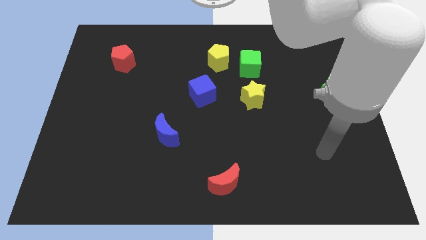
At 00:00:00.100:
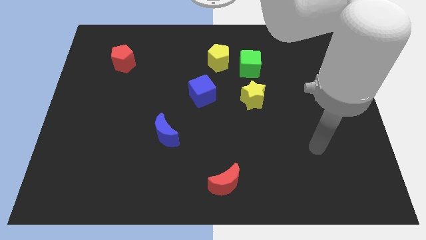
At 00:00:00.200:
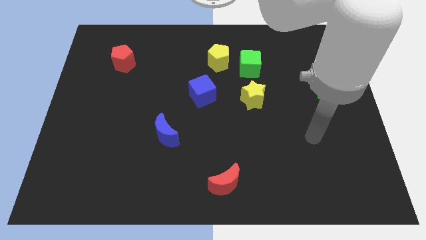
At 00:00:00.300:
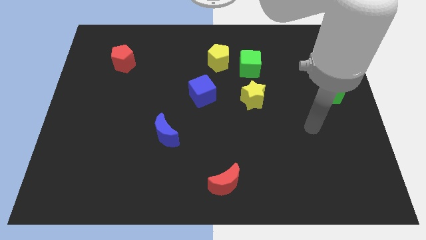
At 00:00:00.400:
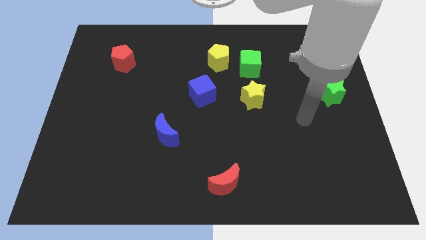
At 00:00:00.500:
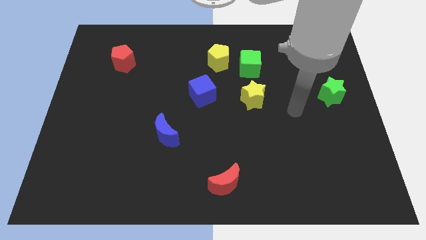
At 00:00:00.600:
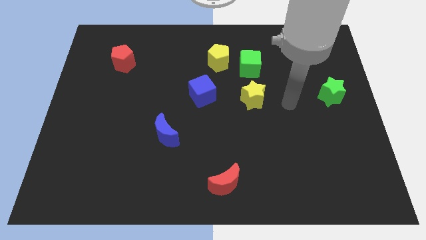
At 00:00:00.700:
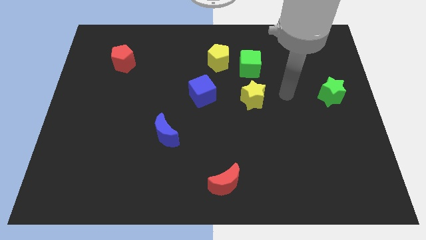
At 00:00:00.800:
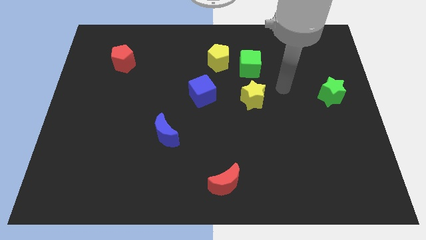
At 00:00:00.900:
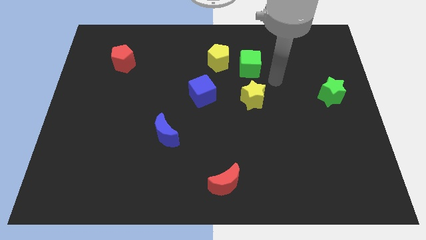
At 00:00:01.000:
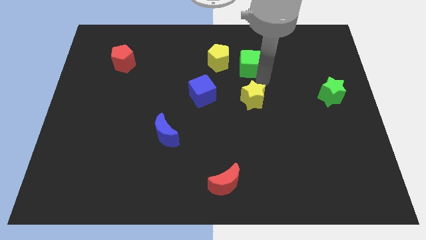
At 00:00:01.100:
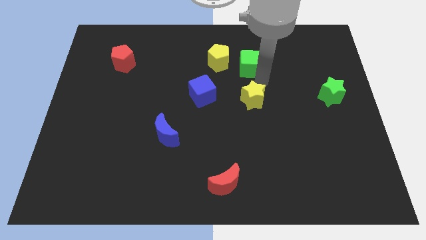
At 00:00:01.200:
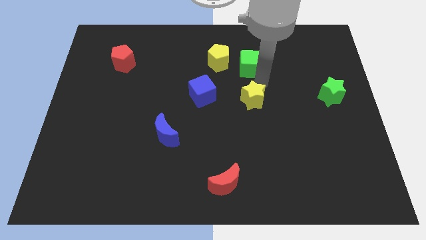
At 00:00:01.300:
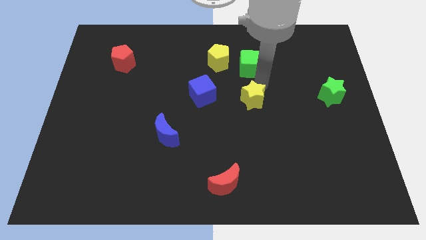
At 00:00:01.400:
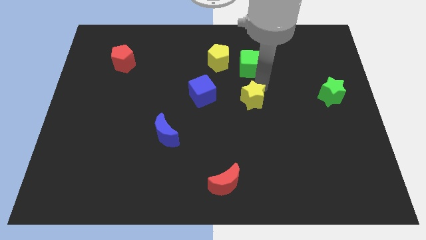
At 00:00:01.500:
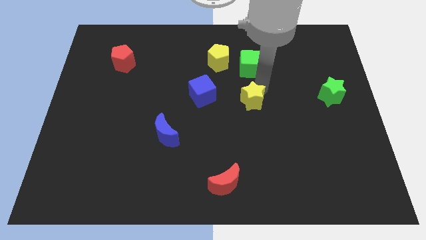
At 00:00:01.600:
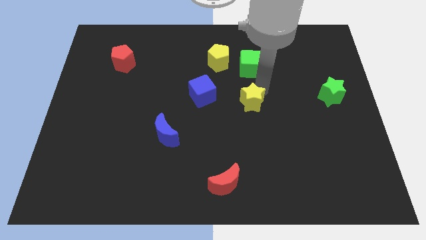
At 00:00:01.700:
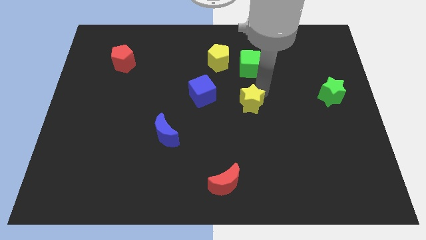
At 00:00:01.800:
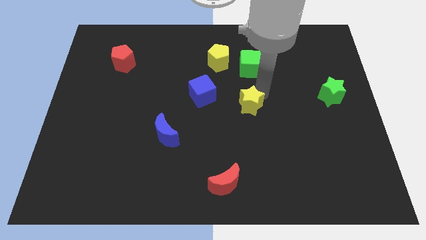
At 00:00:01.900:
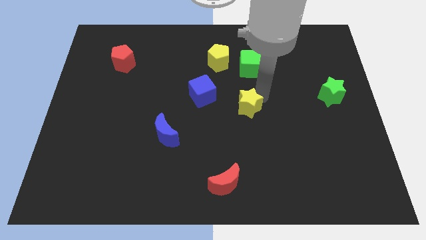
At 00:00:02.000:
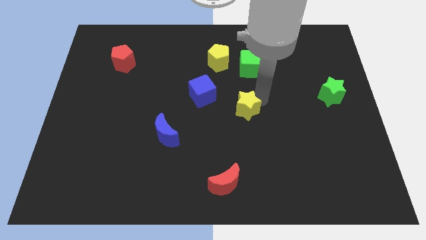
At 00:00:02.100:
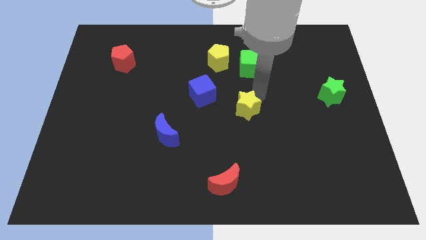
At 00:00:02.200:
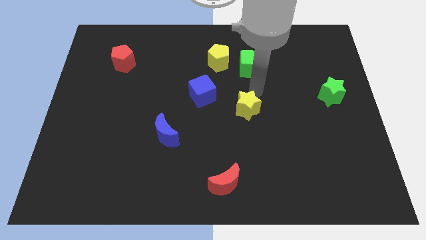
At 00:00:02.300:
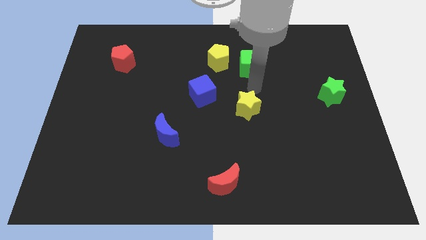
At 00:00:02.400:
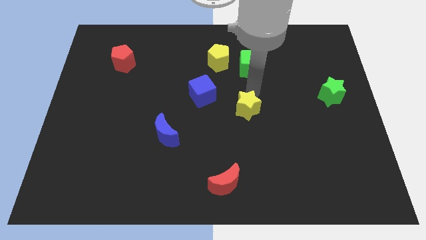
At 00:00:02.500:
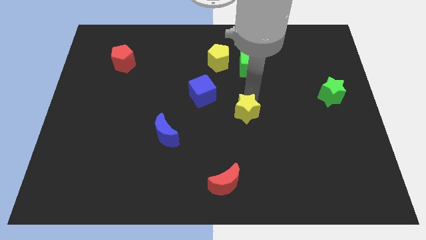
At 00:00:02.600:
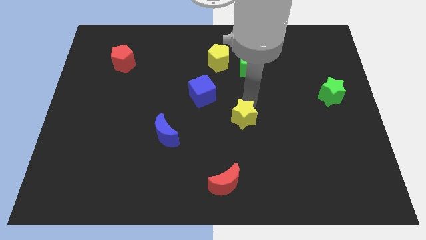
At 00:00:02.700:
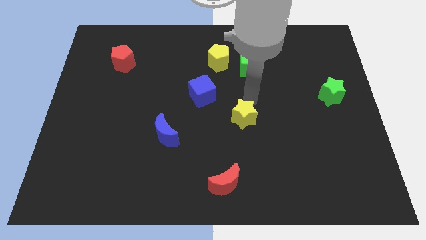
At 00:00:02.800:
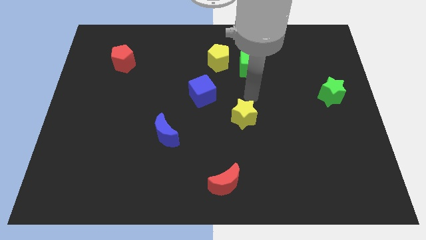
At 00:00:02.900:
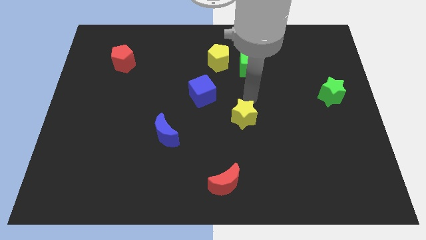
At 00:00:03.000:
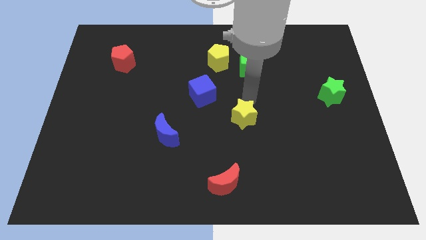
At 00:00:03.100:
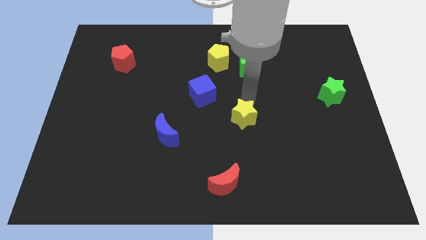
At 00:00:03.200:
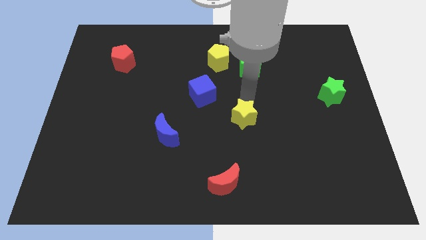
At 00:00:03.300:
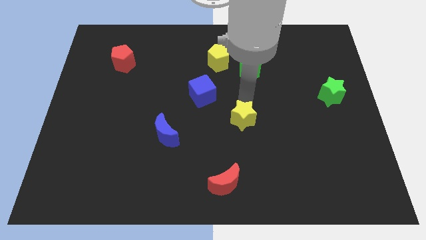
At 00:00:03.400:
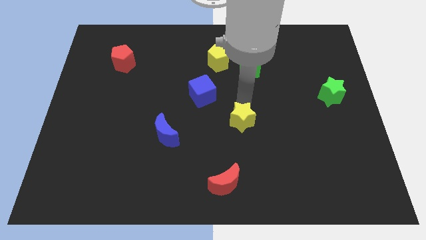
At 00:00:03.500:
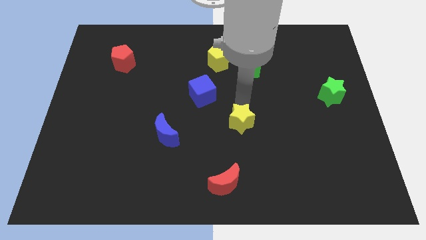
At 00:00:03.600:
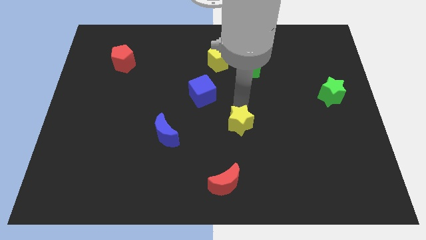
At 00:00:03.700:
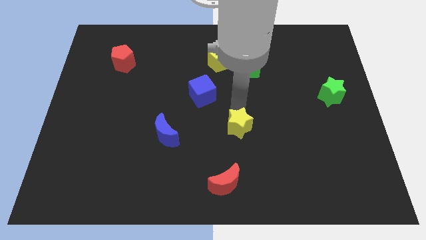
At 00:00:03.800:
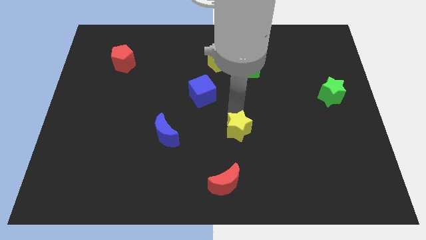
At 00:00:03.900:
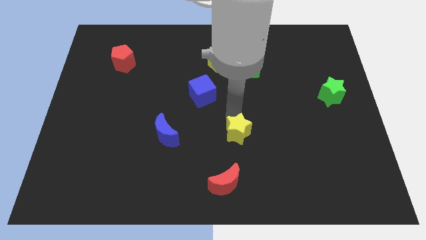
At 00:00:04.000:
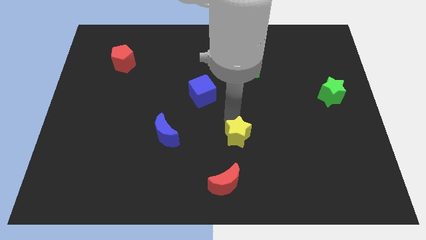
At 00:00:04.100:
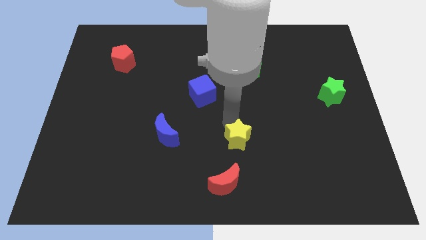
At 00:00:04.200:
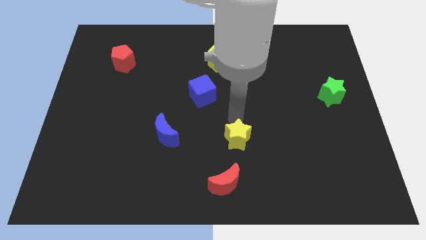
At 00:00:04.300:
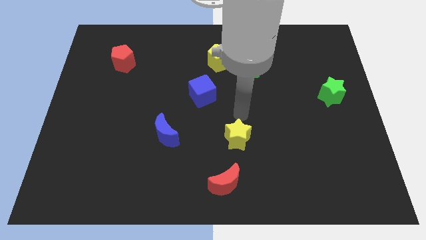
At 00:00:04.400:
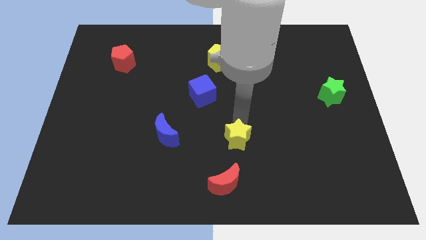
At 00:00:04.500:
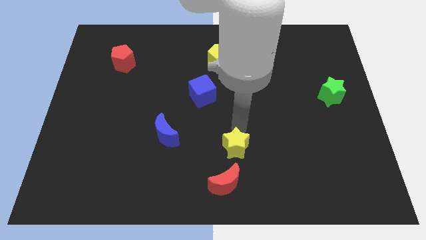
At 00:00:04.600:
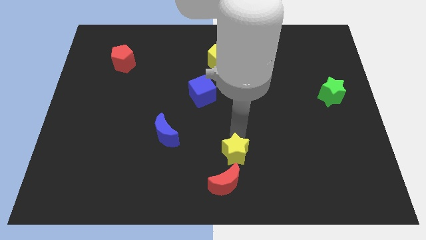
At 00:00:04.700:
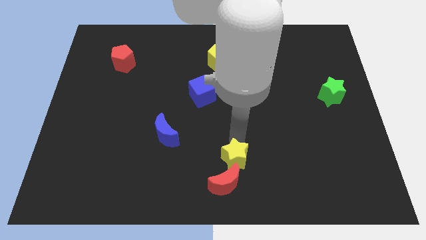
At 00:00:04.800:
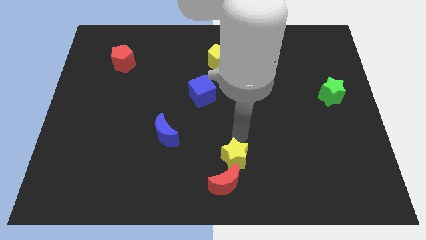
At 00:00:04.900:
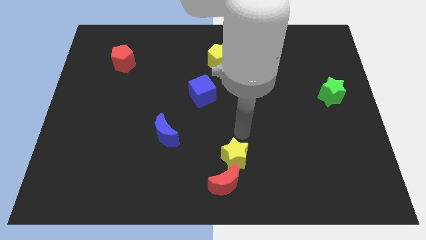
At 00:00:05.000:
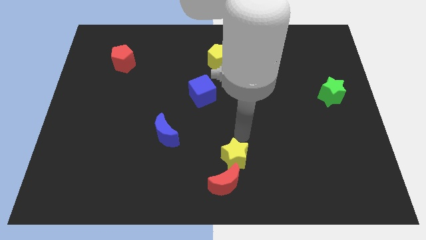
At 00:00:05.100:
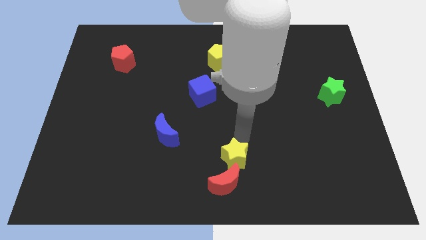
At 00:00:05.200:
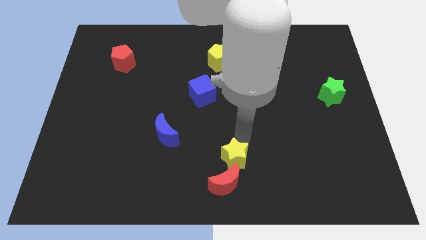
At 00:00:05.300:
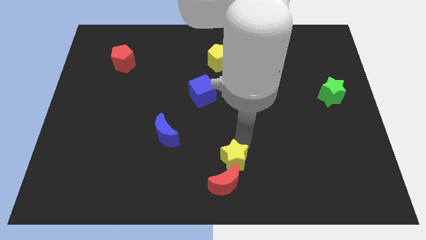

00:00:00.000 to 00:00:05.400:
push the yellow star close to the red moon
